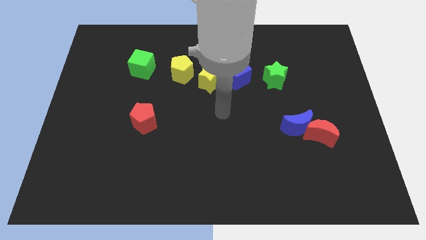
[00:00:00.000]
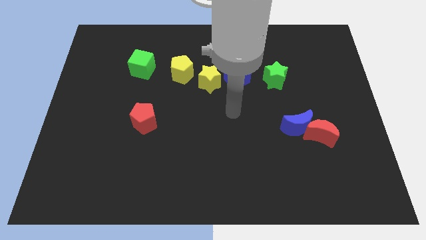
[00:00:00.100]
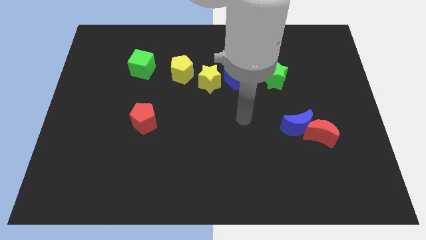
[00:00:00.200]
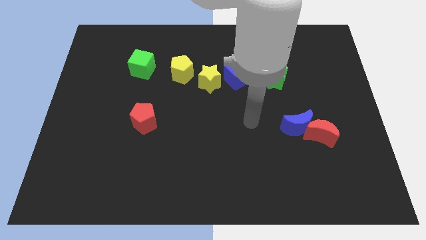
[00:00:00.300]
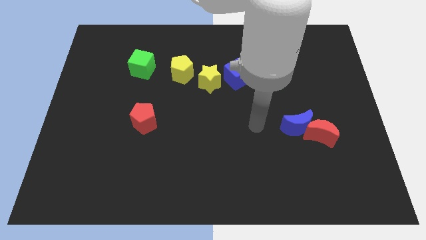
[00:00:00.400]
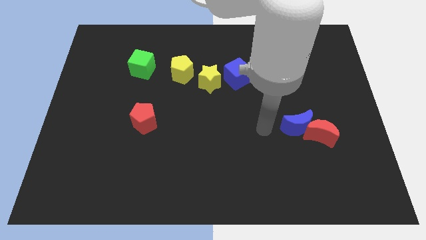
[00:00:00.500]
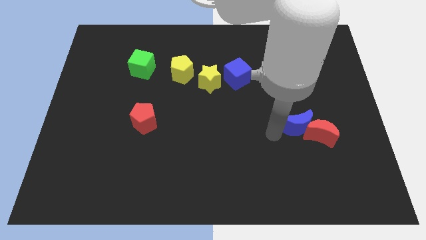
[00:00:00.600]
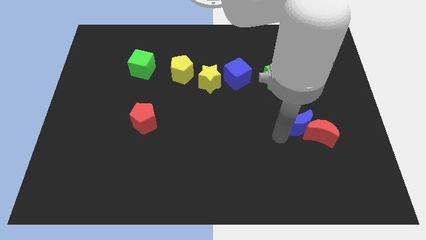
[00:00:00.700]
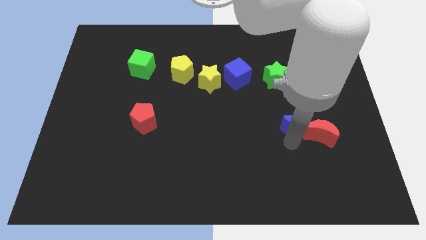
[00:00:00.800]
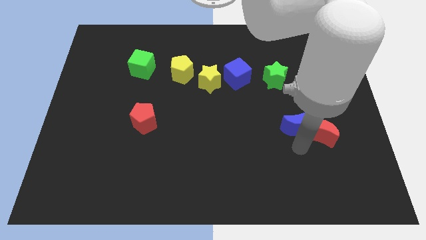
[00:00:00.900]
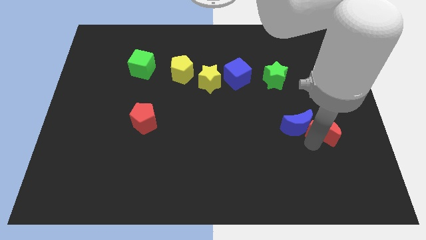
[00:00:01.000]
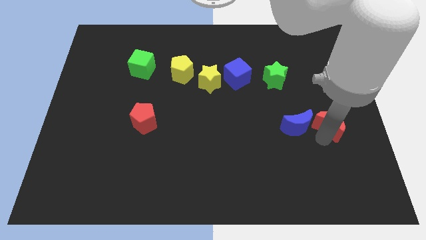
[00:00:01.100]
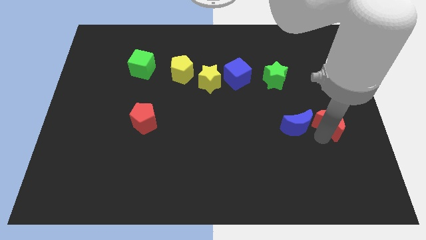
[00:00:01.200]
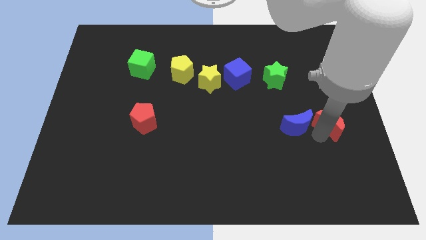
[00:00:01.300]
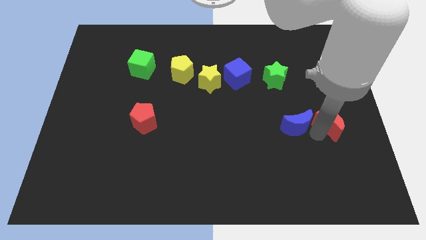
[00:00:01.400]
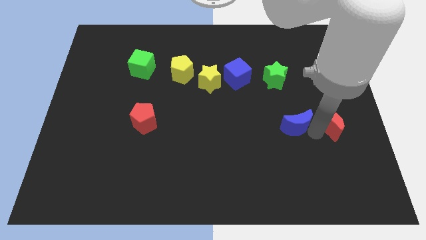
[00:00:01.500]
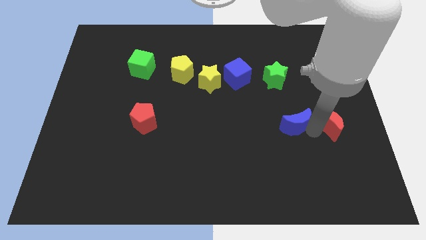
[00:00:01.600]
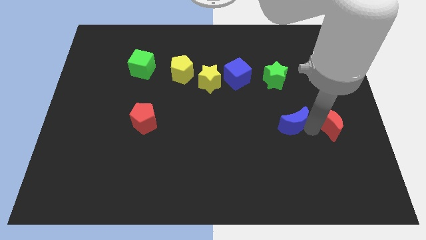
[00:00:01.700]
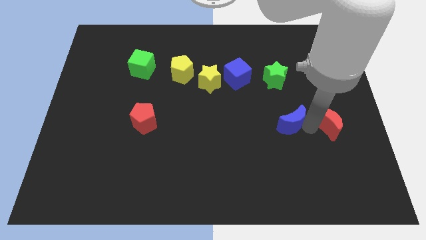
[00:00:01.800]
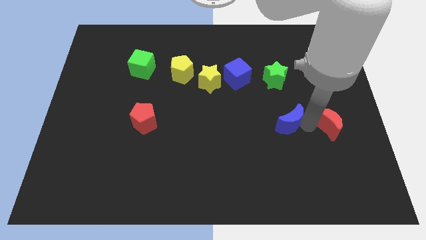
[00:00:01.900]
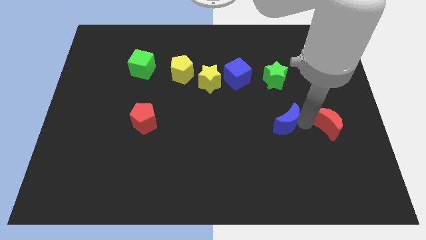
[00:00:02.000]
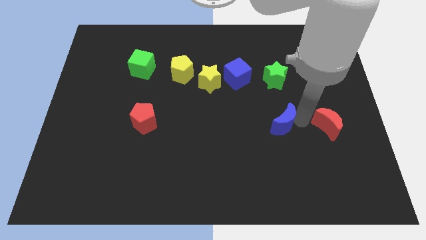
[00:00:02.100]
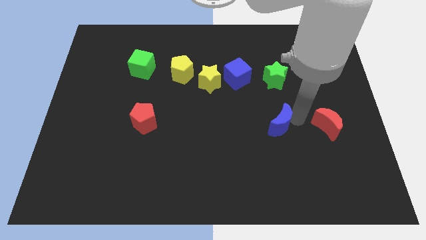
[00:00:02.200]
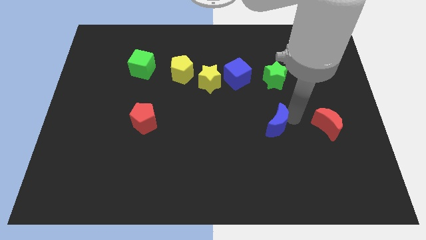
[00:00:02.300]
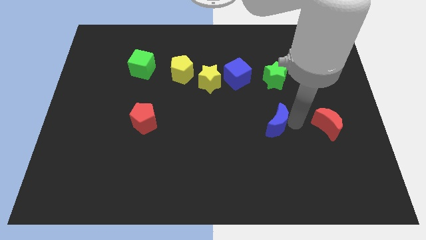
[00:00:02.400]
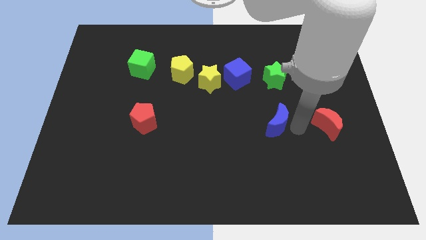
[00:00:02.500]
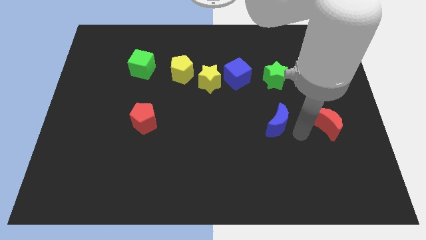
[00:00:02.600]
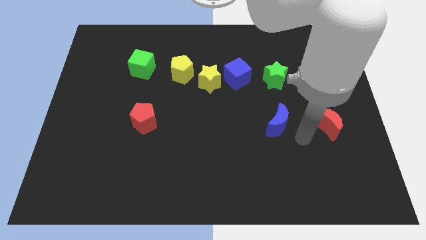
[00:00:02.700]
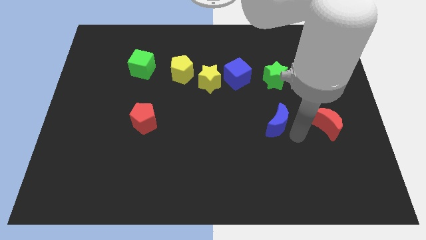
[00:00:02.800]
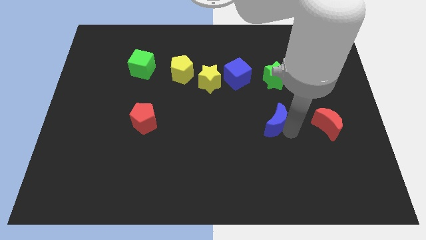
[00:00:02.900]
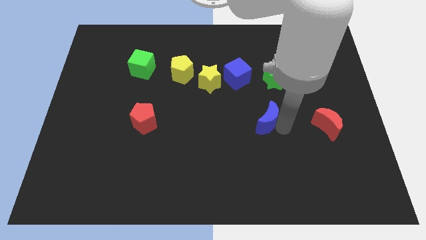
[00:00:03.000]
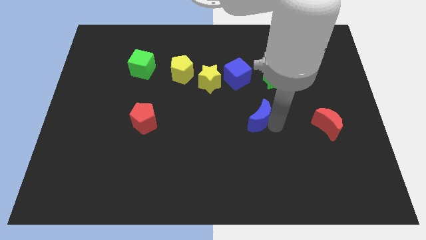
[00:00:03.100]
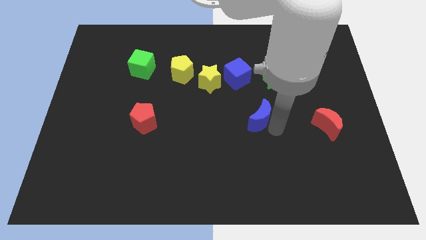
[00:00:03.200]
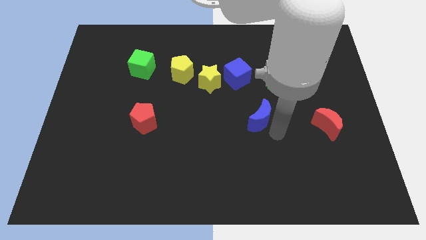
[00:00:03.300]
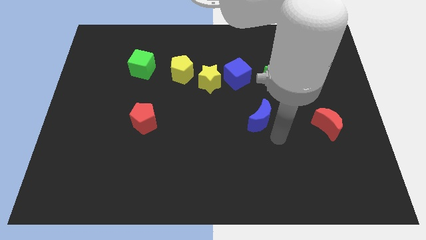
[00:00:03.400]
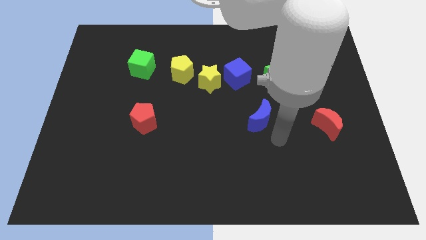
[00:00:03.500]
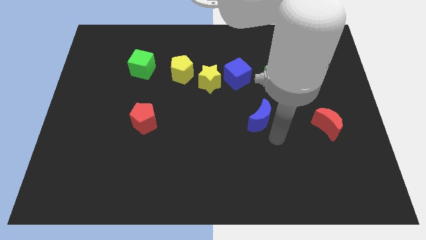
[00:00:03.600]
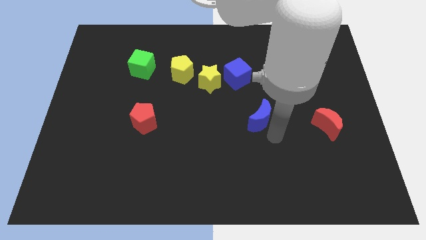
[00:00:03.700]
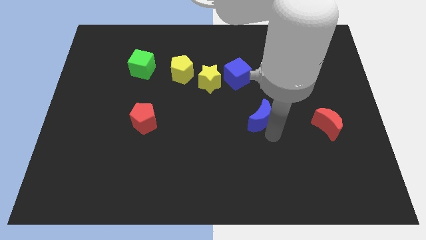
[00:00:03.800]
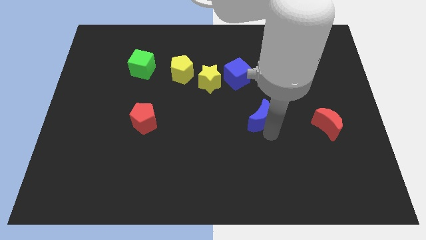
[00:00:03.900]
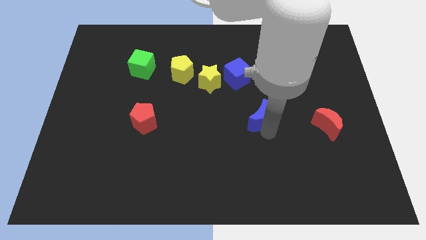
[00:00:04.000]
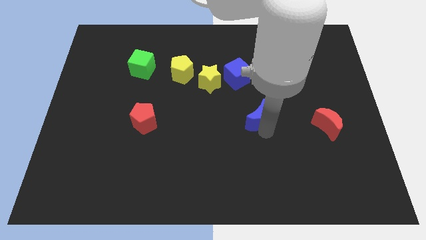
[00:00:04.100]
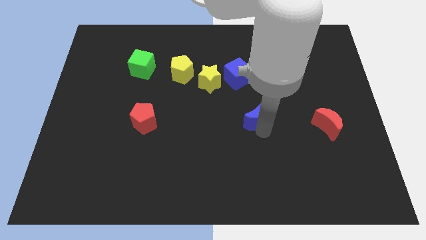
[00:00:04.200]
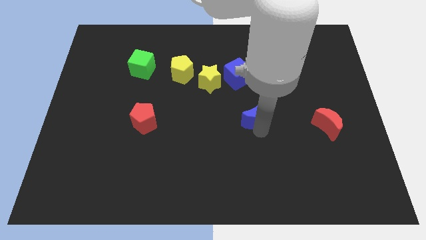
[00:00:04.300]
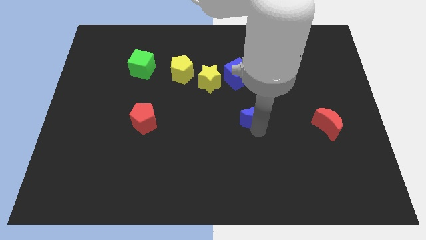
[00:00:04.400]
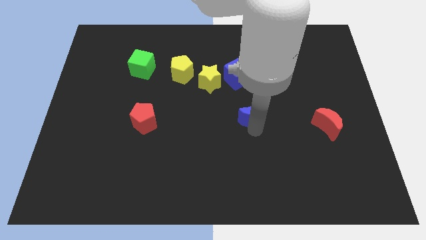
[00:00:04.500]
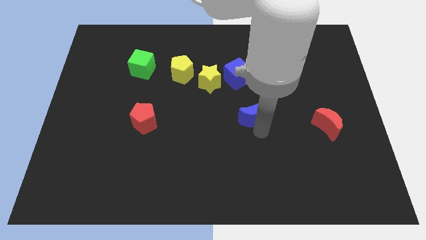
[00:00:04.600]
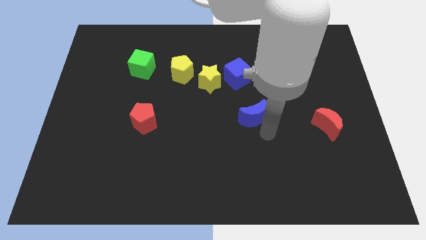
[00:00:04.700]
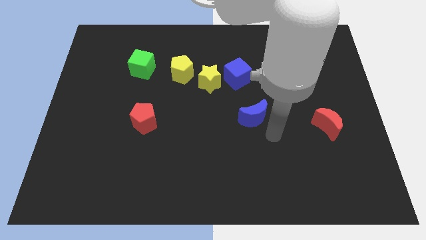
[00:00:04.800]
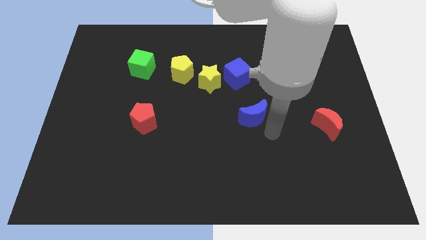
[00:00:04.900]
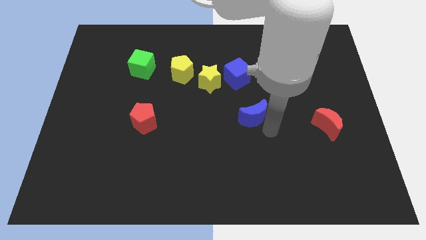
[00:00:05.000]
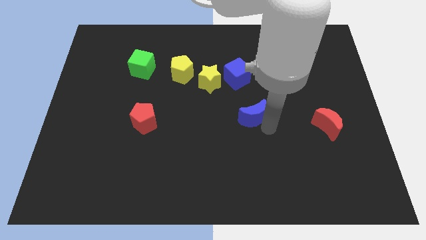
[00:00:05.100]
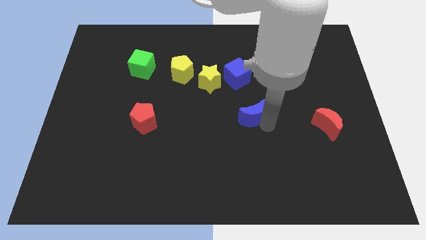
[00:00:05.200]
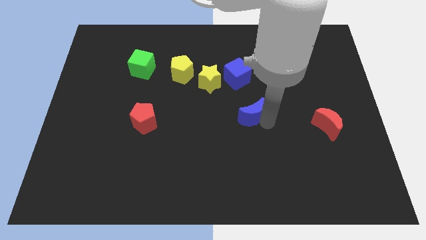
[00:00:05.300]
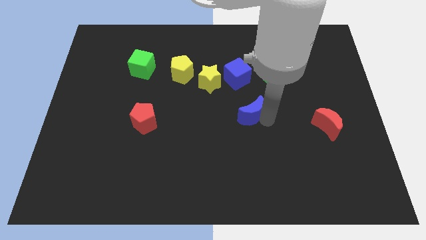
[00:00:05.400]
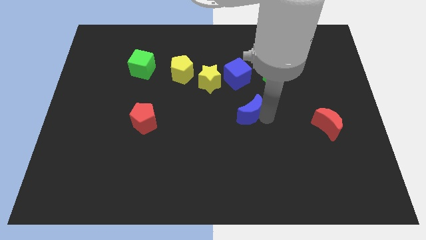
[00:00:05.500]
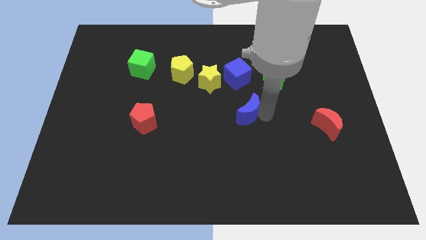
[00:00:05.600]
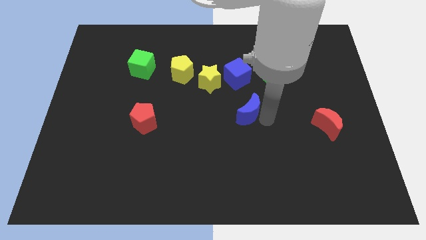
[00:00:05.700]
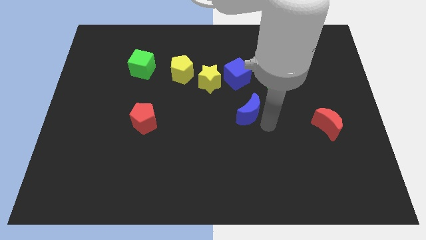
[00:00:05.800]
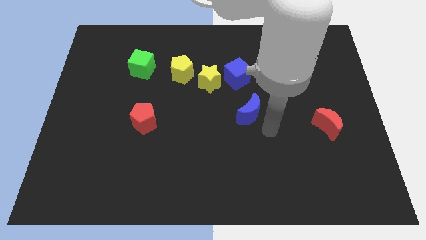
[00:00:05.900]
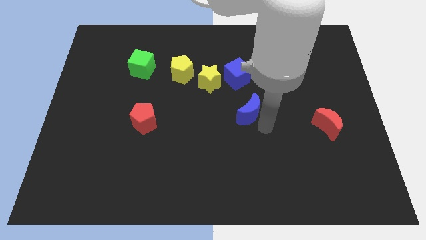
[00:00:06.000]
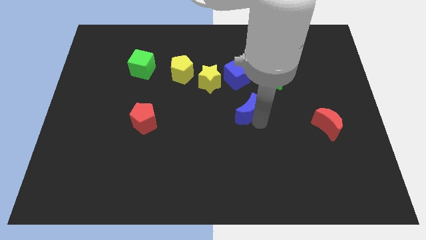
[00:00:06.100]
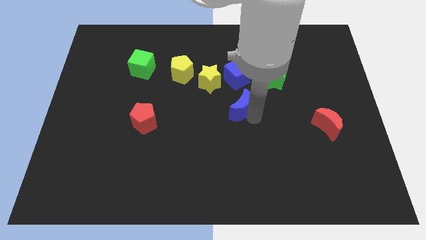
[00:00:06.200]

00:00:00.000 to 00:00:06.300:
push the blue moon diagonally down and to the right of the yellow star
